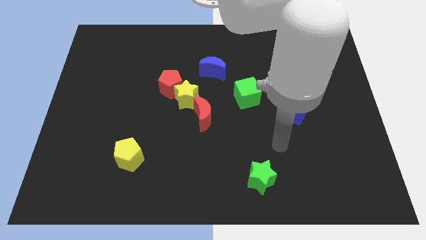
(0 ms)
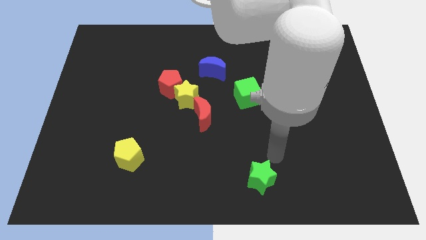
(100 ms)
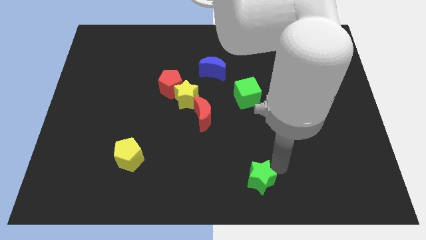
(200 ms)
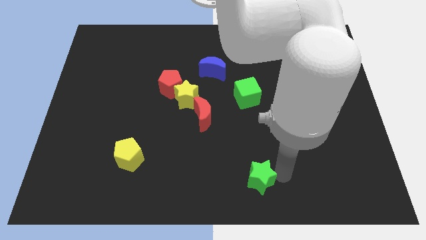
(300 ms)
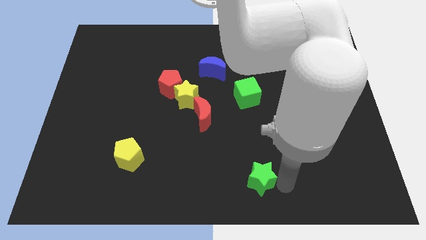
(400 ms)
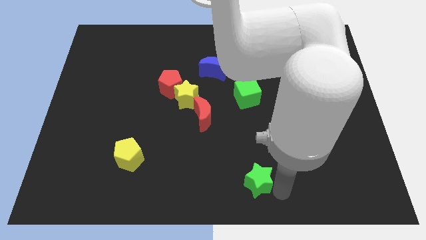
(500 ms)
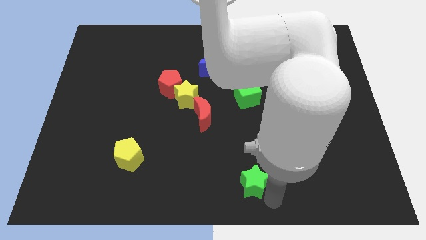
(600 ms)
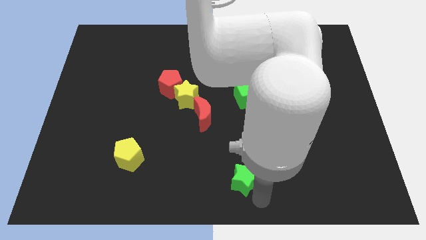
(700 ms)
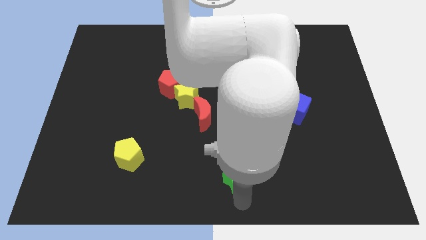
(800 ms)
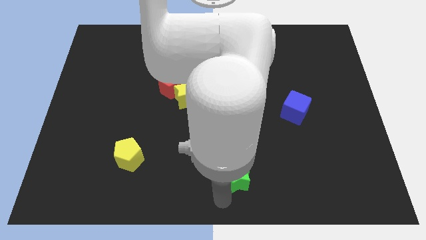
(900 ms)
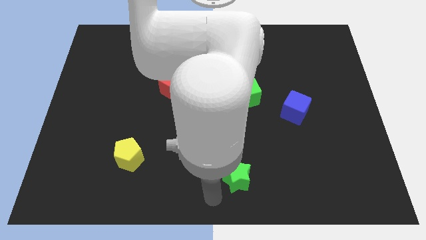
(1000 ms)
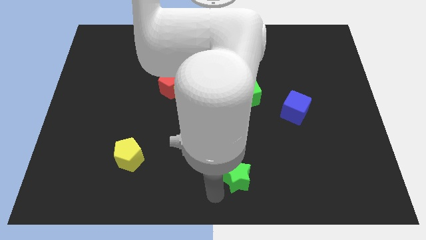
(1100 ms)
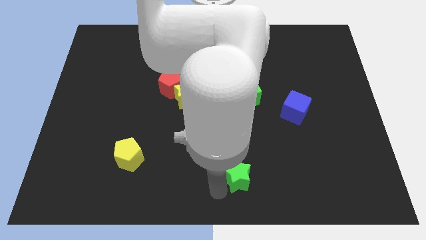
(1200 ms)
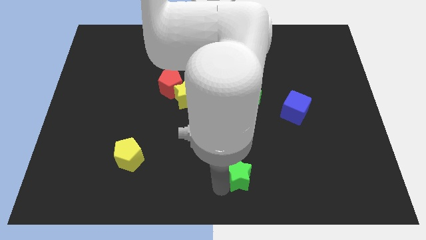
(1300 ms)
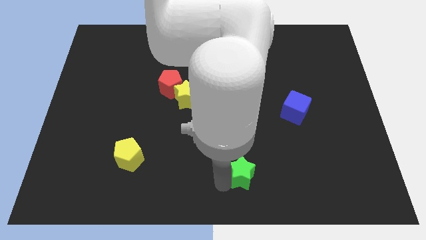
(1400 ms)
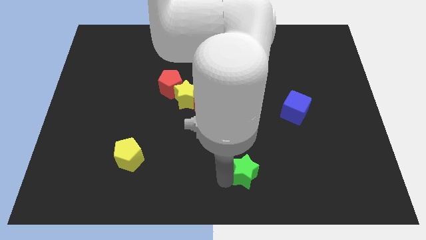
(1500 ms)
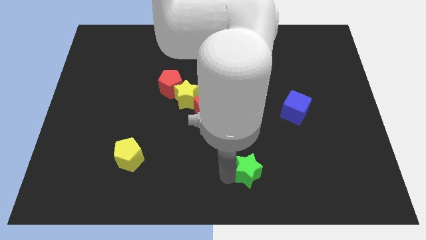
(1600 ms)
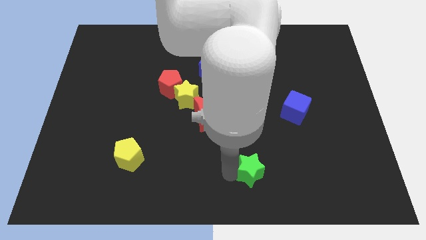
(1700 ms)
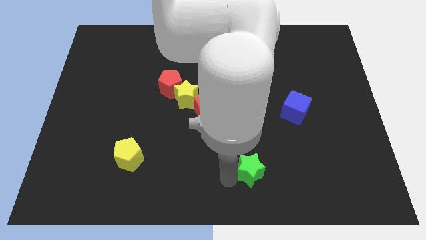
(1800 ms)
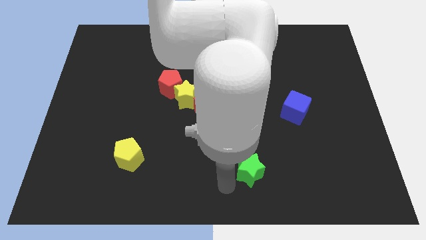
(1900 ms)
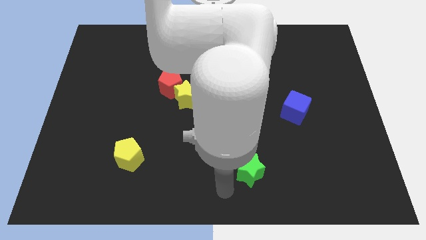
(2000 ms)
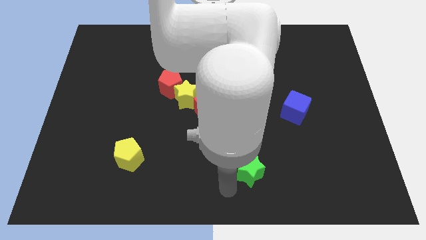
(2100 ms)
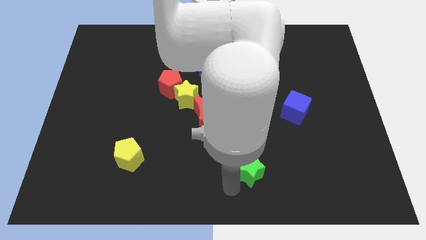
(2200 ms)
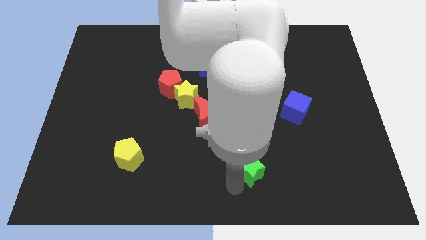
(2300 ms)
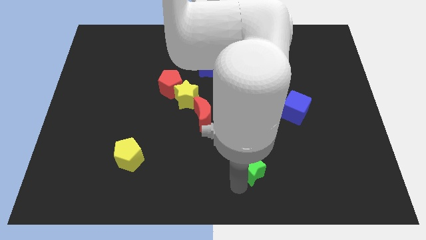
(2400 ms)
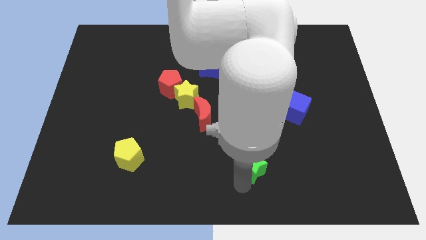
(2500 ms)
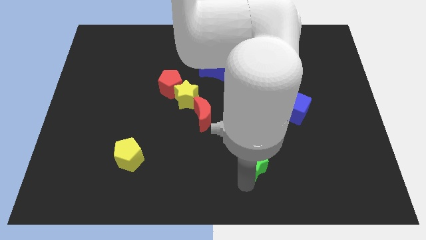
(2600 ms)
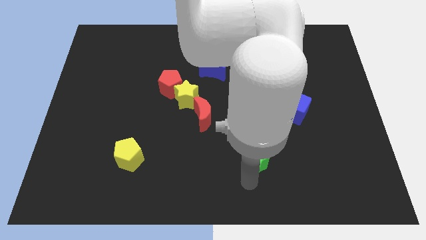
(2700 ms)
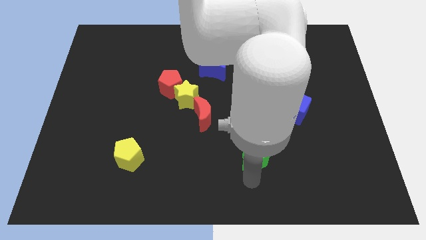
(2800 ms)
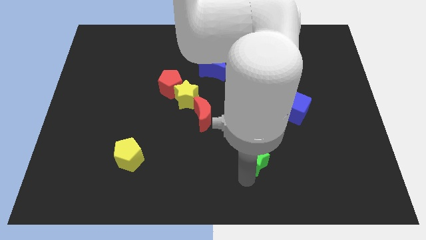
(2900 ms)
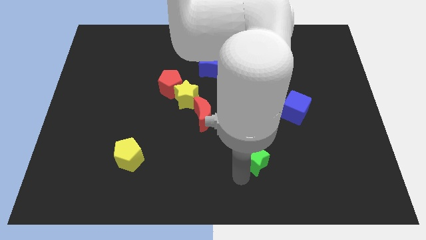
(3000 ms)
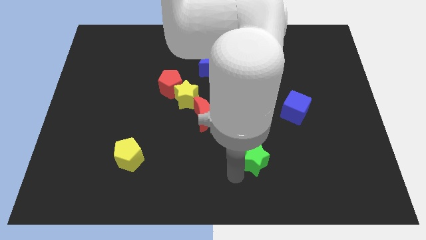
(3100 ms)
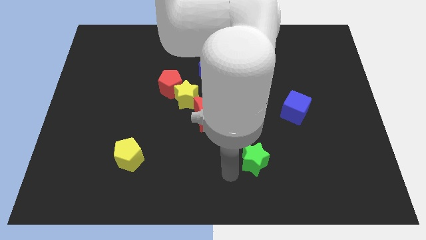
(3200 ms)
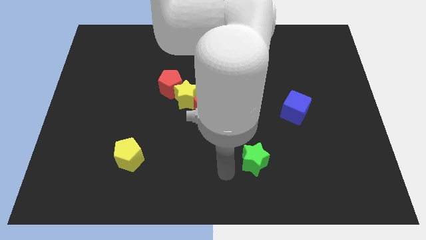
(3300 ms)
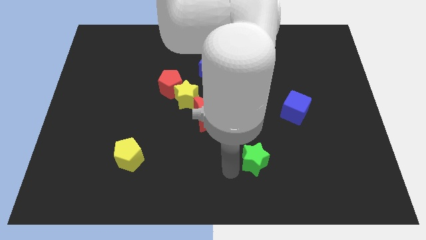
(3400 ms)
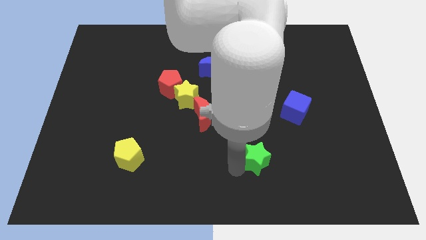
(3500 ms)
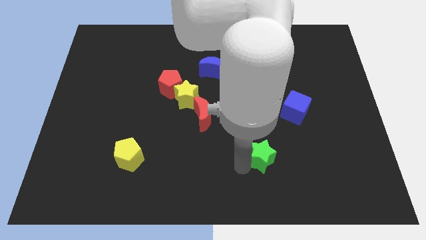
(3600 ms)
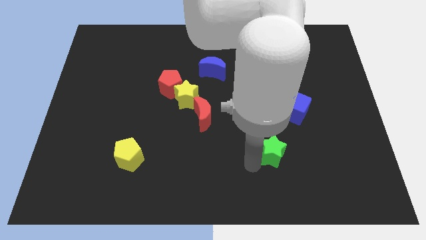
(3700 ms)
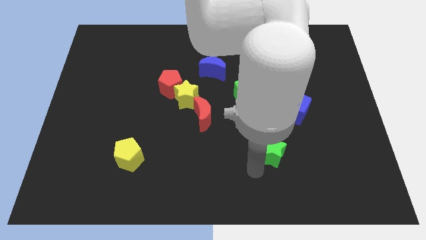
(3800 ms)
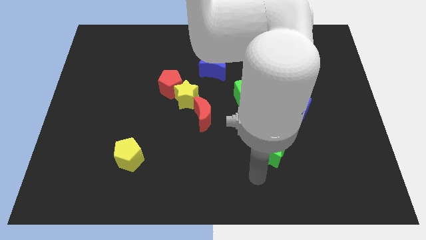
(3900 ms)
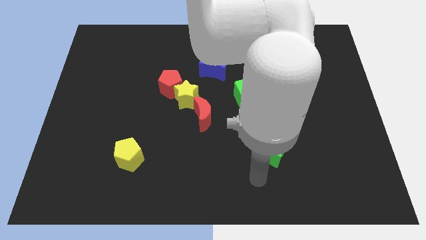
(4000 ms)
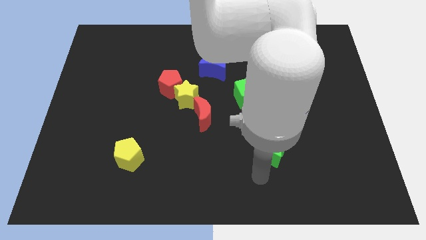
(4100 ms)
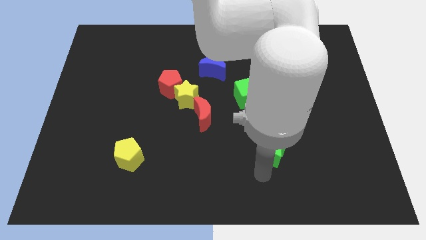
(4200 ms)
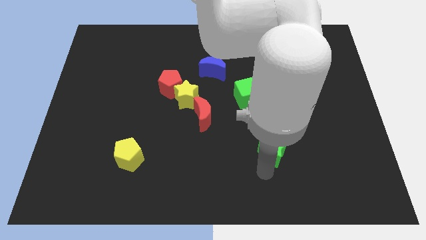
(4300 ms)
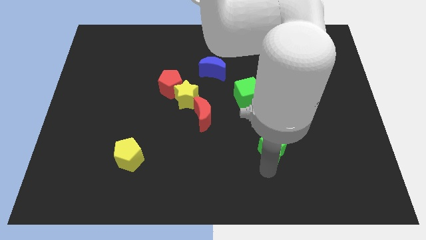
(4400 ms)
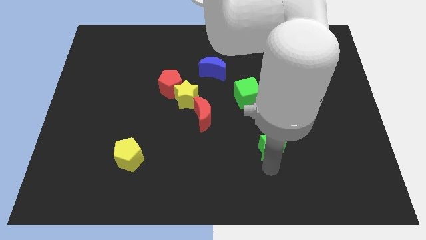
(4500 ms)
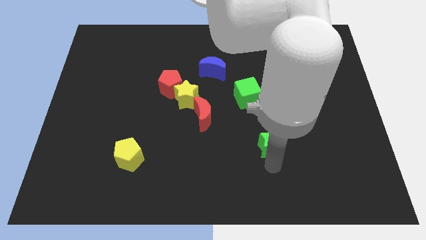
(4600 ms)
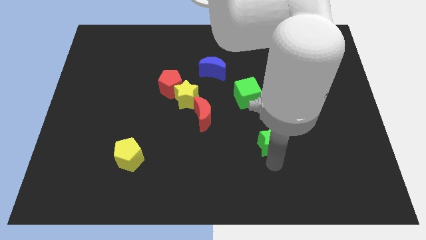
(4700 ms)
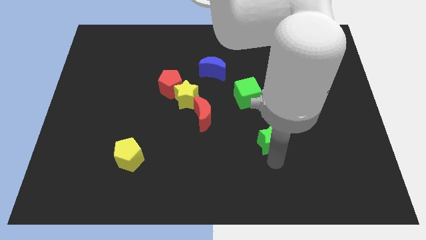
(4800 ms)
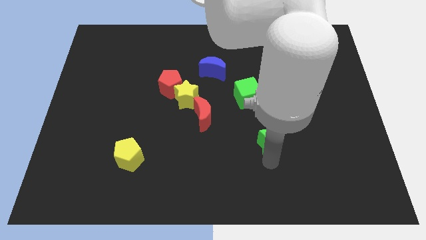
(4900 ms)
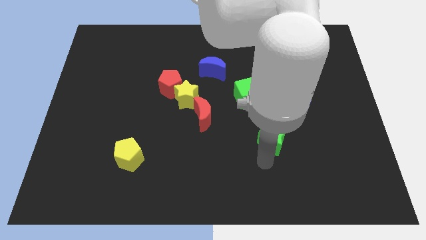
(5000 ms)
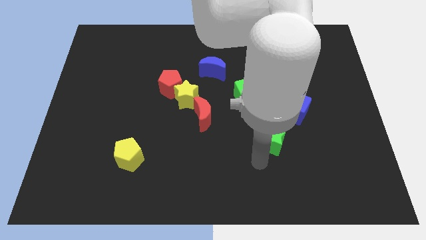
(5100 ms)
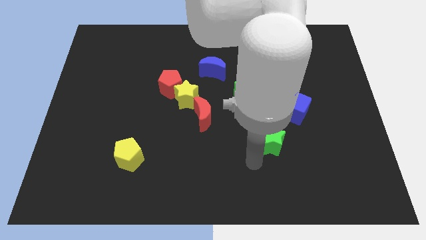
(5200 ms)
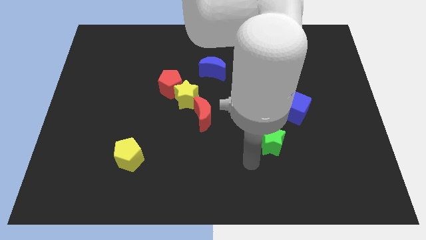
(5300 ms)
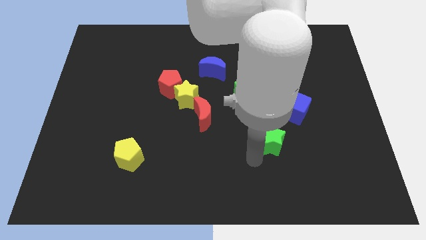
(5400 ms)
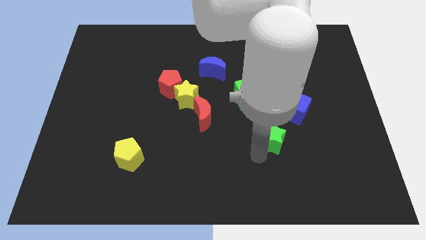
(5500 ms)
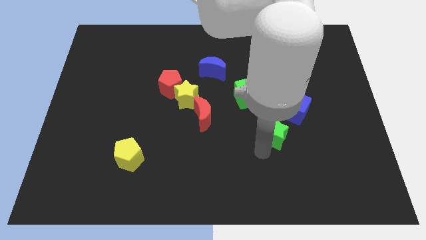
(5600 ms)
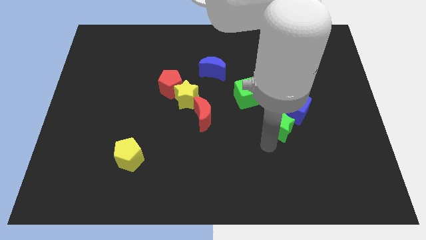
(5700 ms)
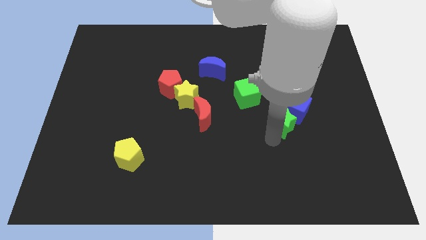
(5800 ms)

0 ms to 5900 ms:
put the green star towards the blue cube

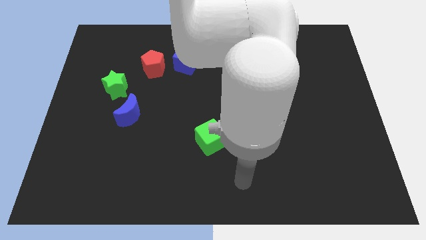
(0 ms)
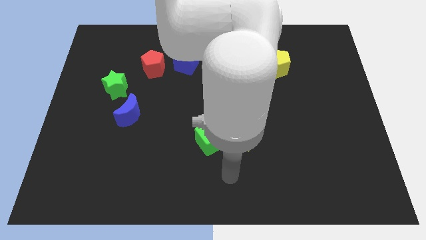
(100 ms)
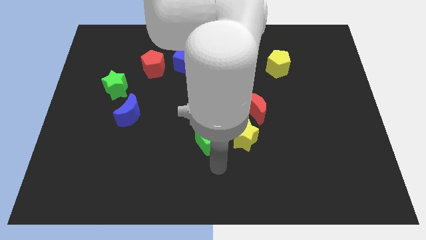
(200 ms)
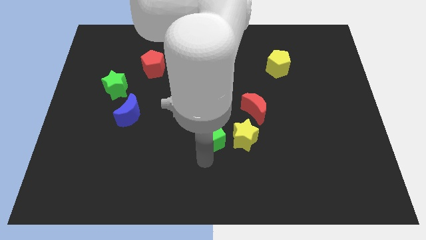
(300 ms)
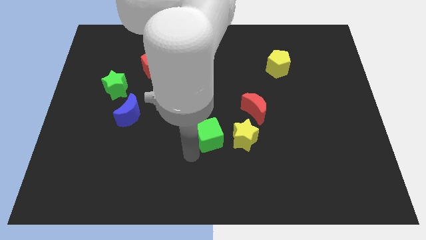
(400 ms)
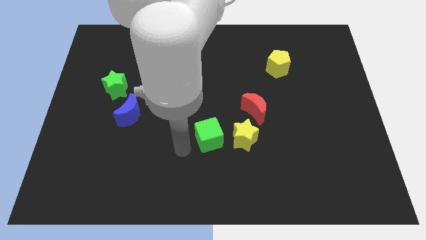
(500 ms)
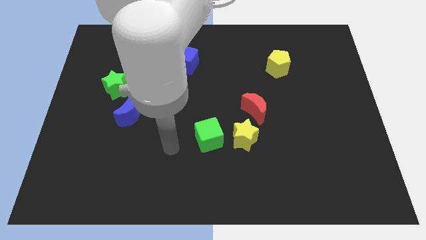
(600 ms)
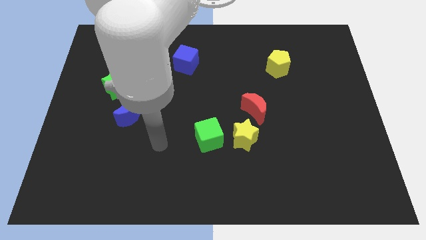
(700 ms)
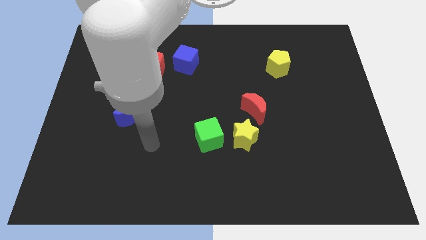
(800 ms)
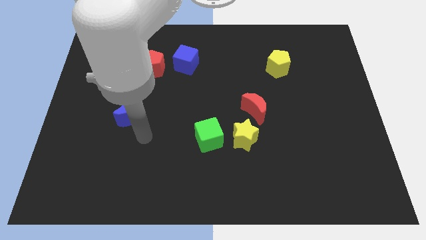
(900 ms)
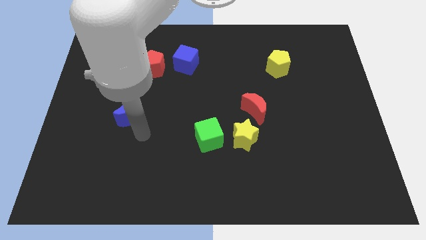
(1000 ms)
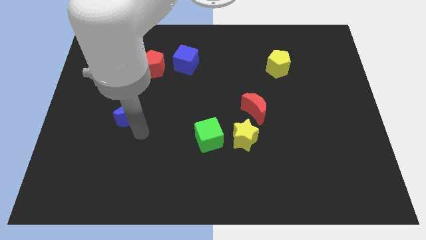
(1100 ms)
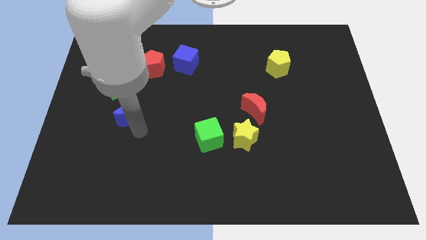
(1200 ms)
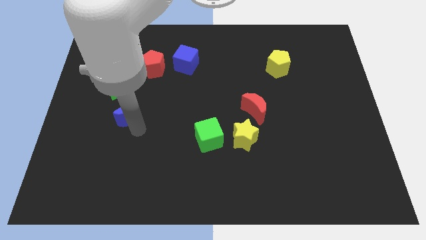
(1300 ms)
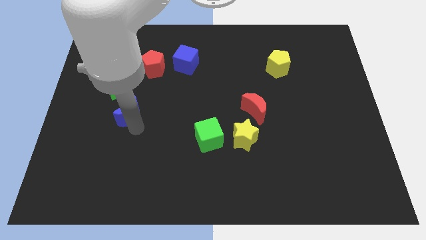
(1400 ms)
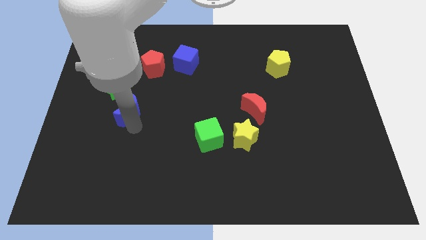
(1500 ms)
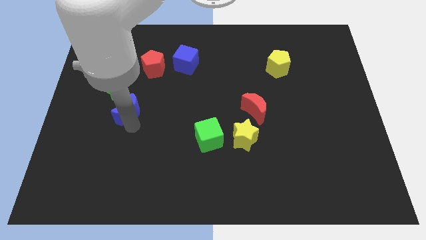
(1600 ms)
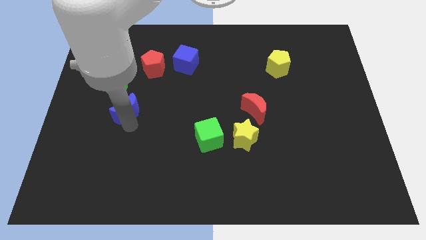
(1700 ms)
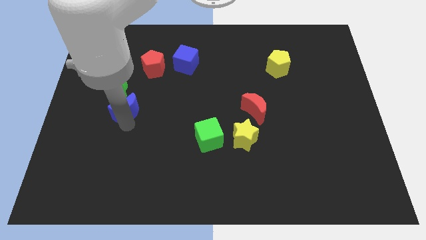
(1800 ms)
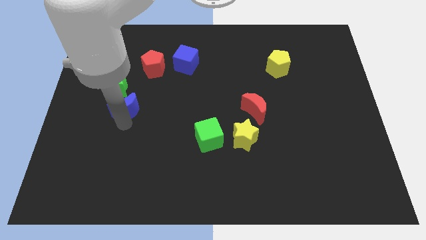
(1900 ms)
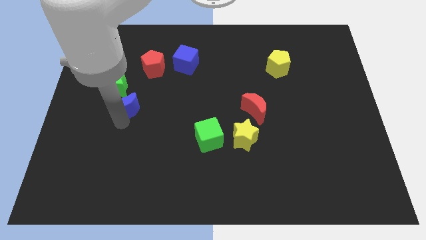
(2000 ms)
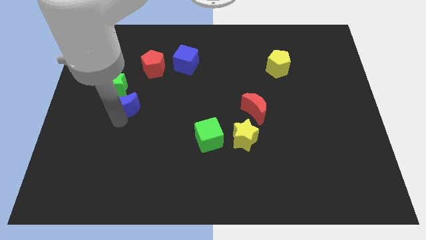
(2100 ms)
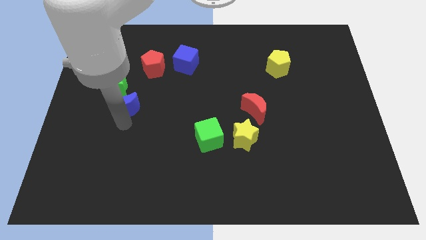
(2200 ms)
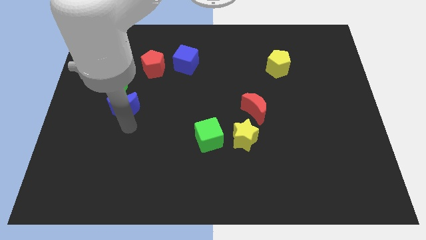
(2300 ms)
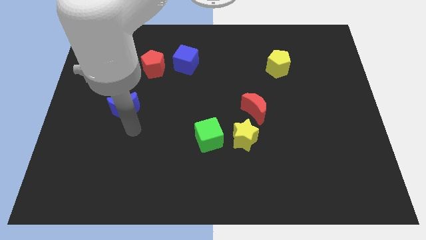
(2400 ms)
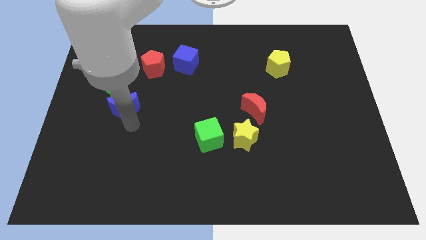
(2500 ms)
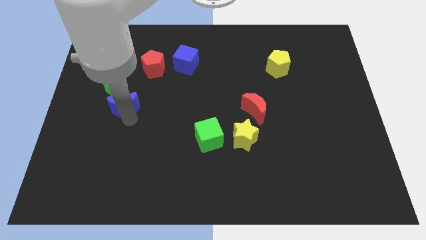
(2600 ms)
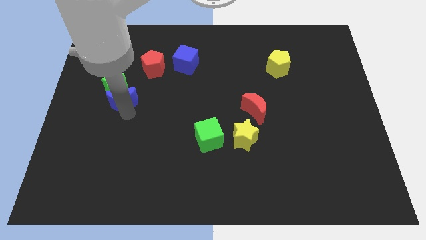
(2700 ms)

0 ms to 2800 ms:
move the blue moon towards the green star
